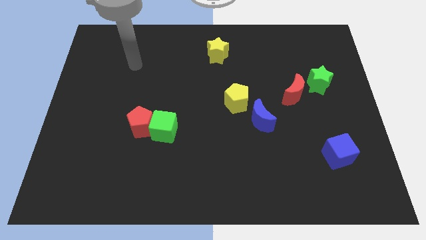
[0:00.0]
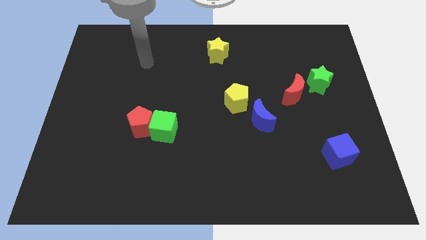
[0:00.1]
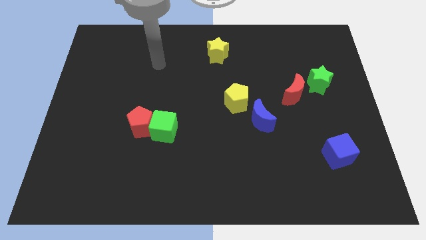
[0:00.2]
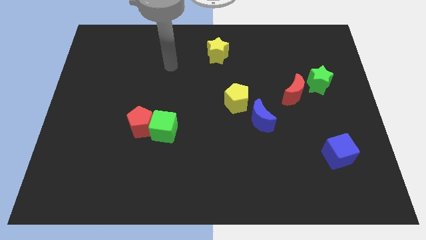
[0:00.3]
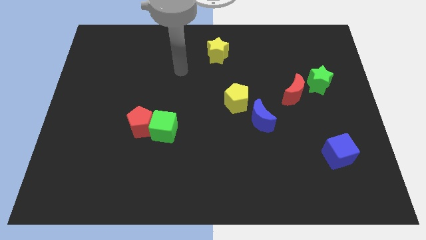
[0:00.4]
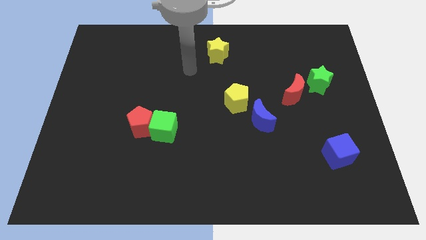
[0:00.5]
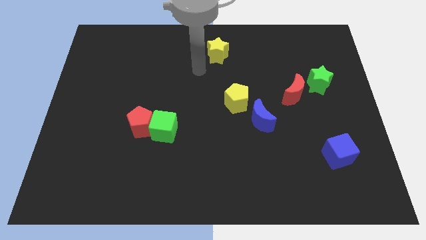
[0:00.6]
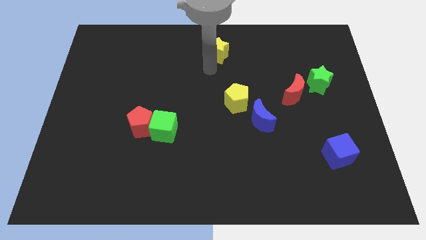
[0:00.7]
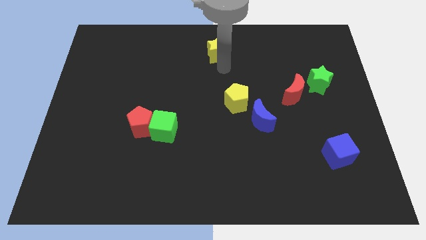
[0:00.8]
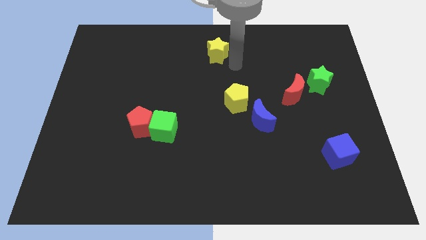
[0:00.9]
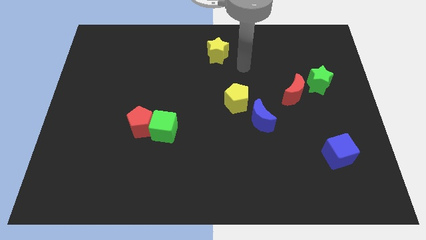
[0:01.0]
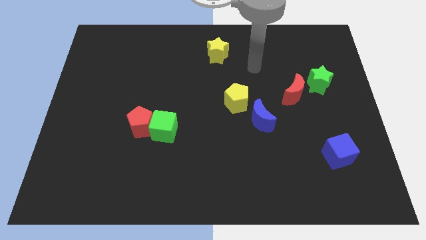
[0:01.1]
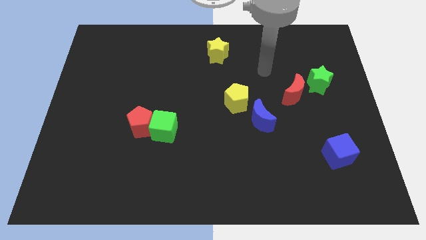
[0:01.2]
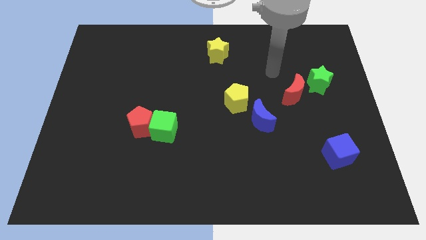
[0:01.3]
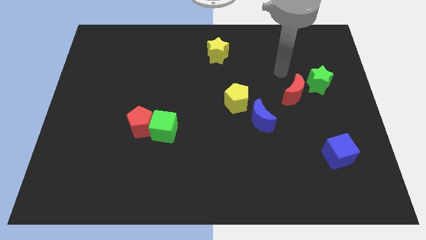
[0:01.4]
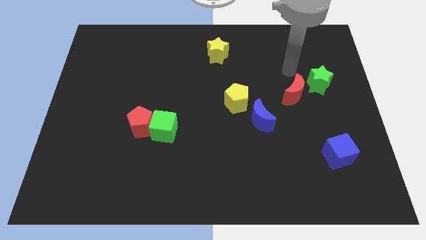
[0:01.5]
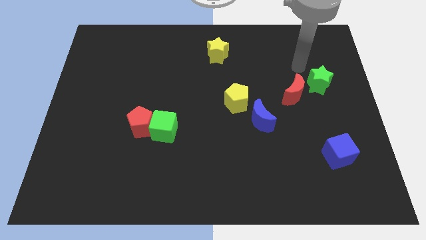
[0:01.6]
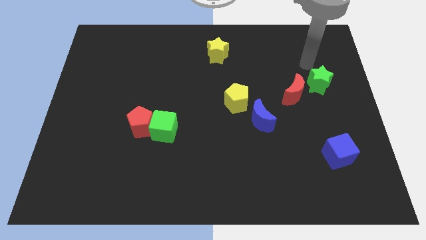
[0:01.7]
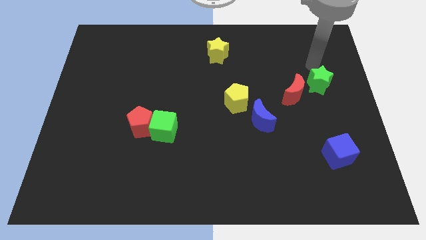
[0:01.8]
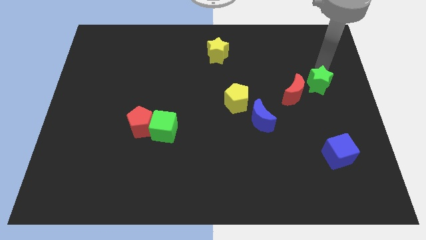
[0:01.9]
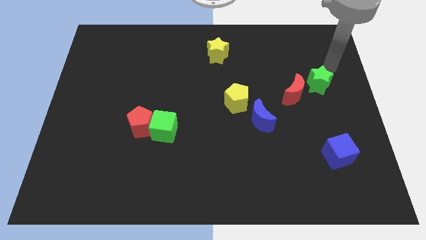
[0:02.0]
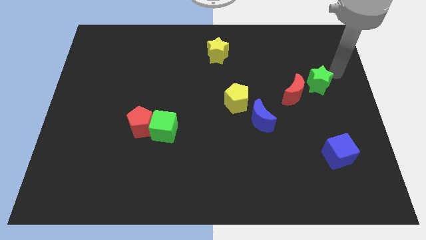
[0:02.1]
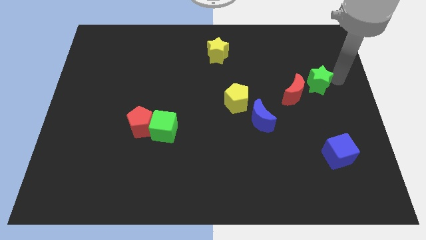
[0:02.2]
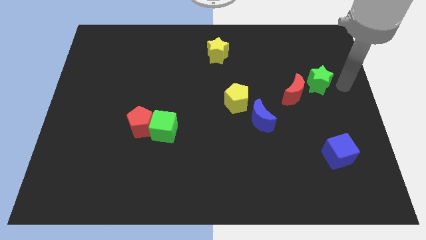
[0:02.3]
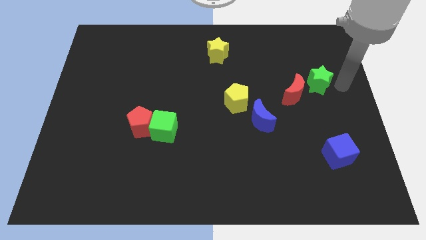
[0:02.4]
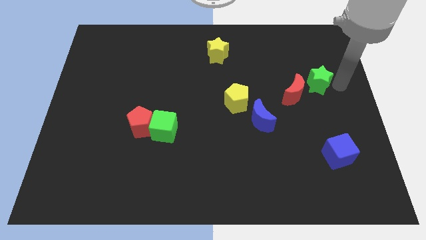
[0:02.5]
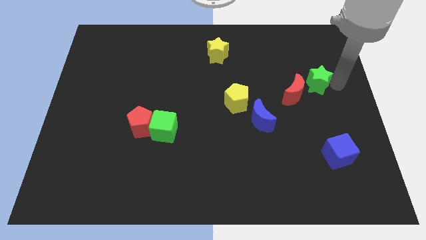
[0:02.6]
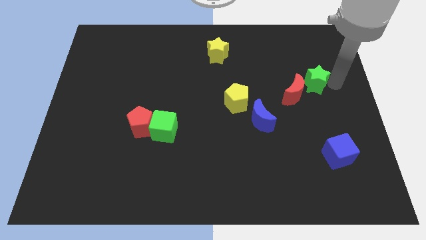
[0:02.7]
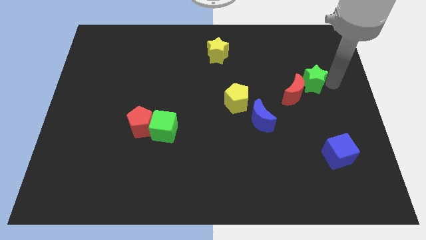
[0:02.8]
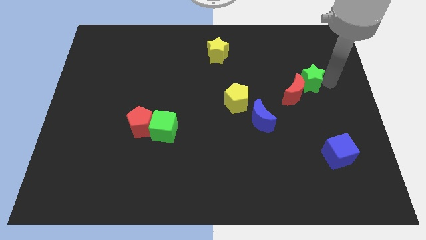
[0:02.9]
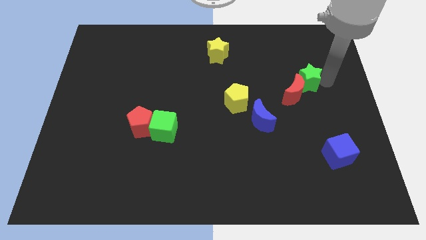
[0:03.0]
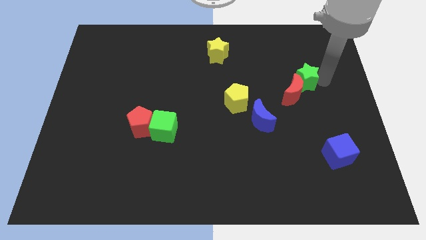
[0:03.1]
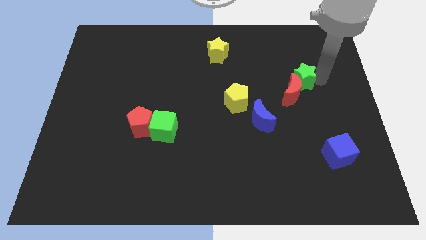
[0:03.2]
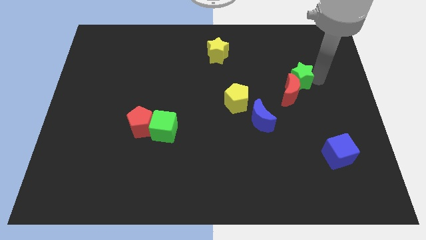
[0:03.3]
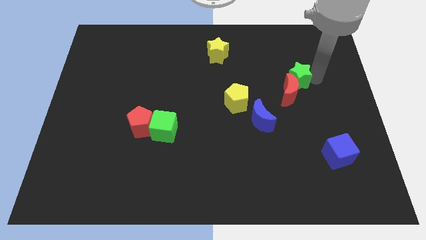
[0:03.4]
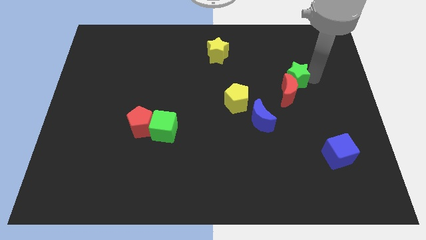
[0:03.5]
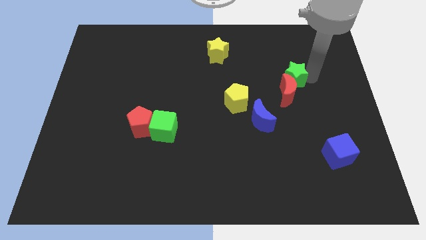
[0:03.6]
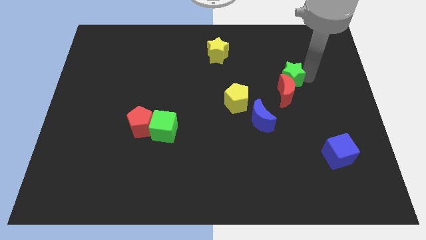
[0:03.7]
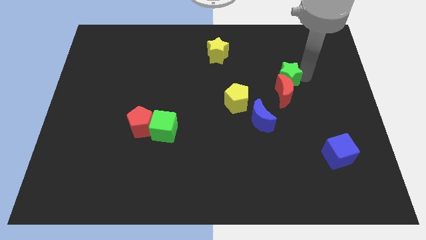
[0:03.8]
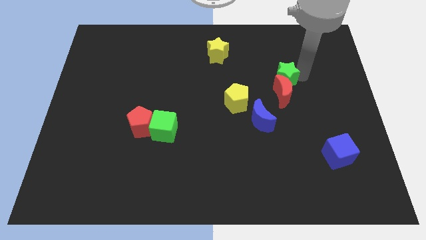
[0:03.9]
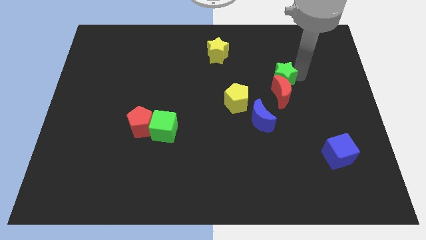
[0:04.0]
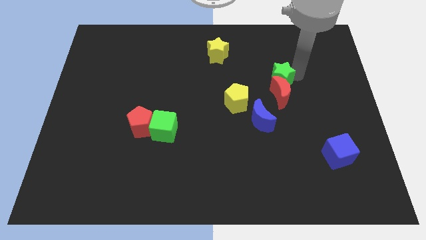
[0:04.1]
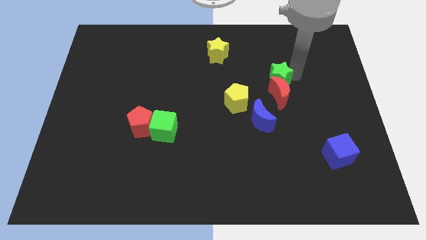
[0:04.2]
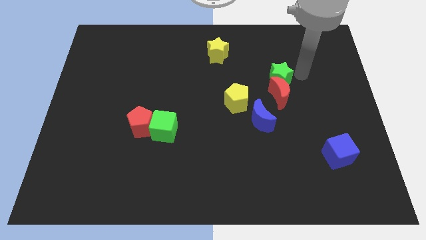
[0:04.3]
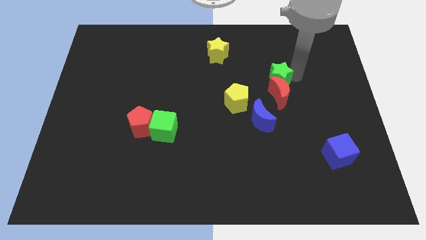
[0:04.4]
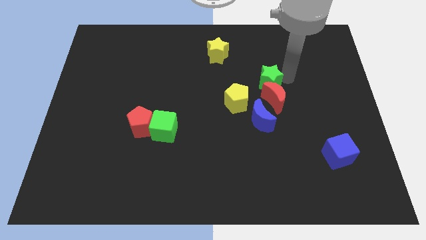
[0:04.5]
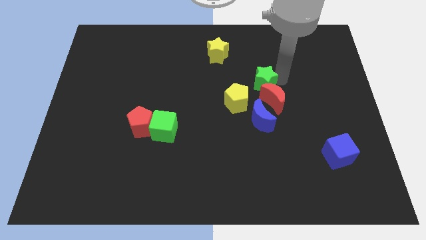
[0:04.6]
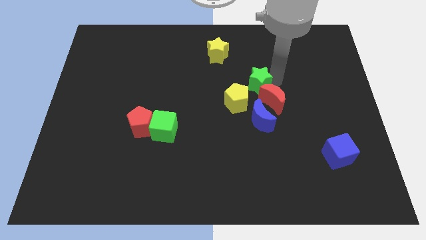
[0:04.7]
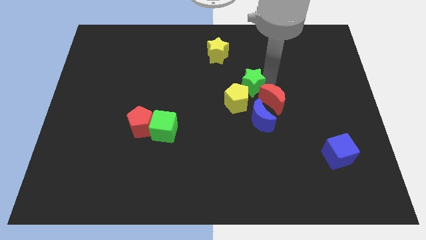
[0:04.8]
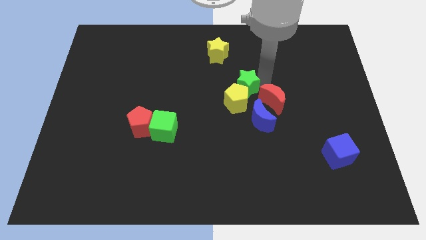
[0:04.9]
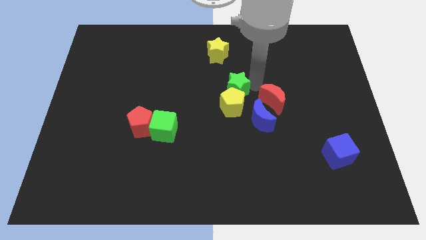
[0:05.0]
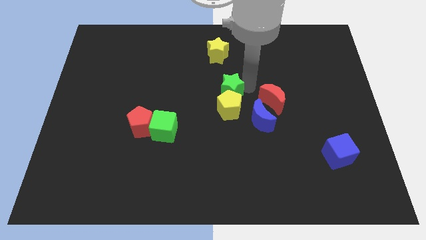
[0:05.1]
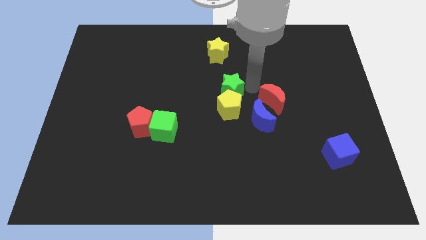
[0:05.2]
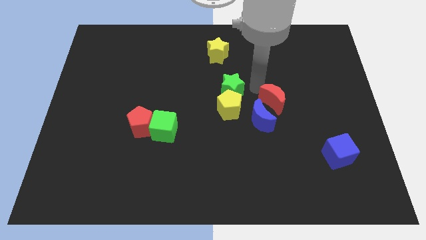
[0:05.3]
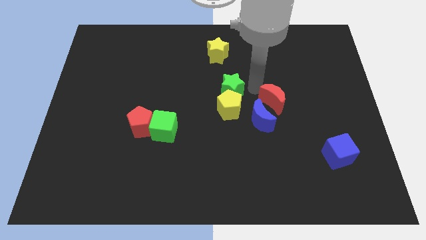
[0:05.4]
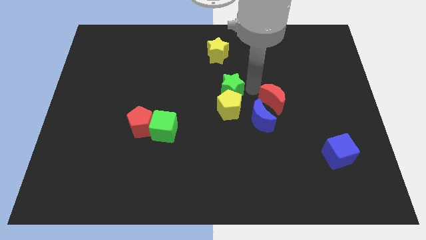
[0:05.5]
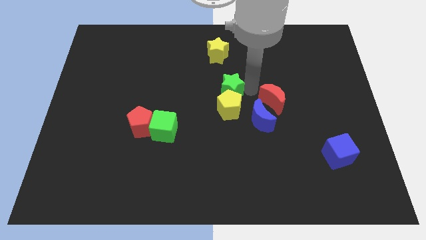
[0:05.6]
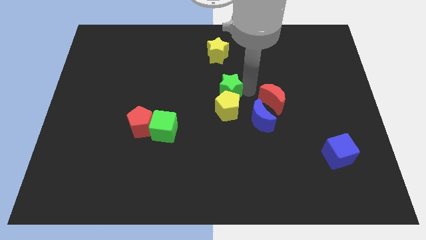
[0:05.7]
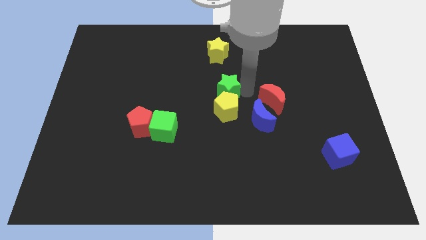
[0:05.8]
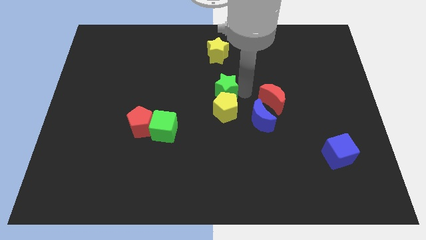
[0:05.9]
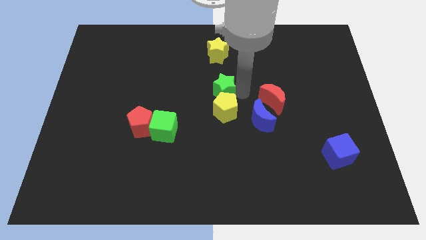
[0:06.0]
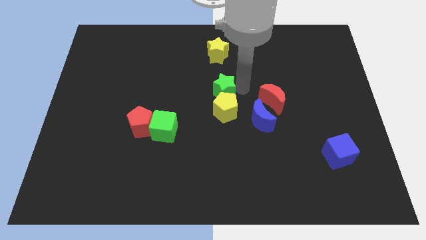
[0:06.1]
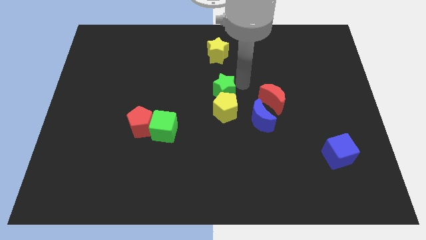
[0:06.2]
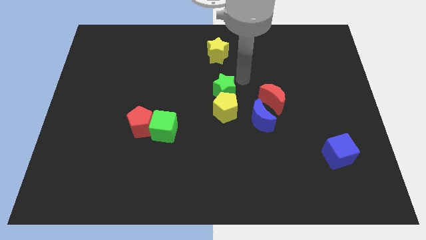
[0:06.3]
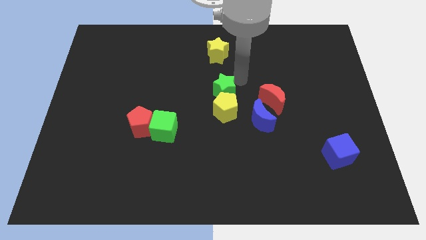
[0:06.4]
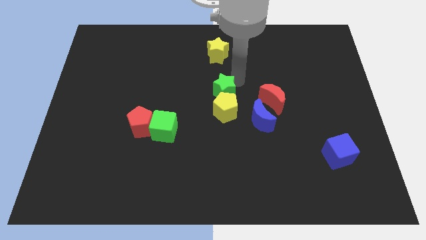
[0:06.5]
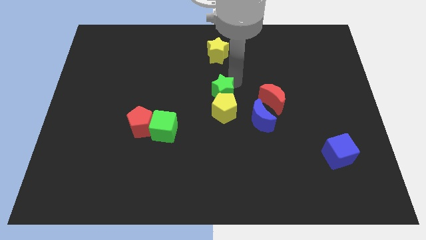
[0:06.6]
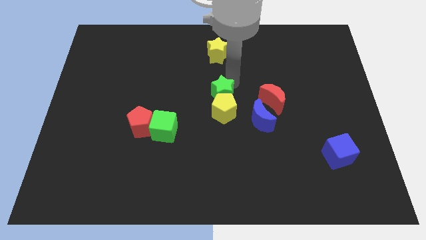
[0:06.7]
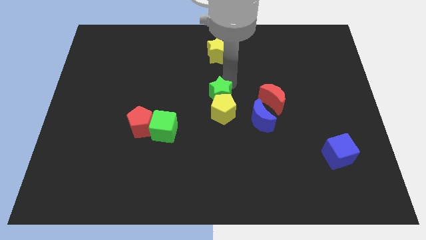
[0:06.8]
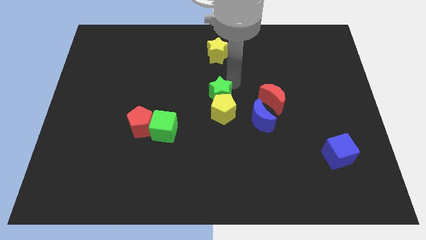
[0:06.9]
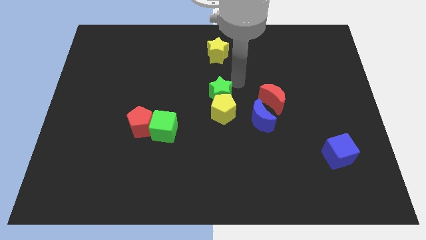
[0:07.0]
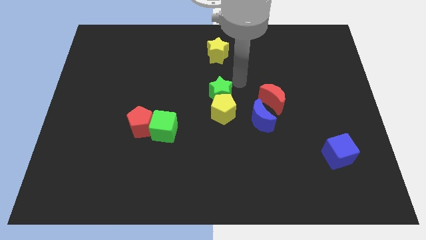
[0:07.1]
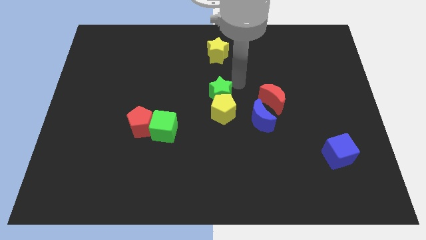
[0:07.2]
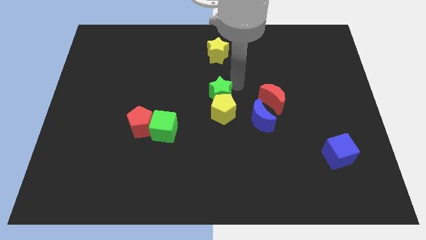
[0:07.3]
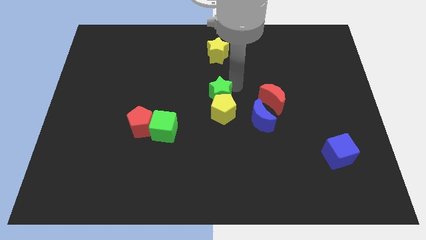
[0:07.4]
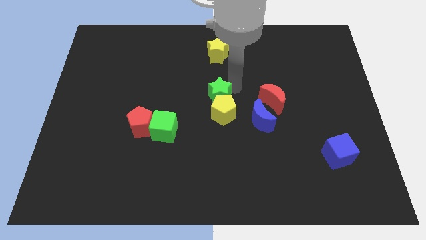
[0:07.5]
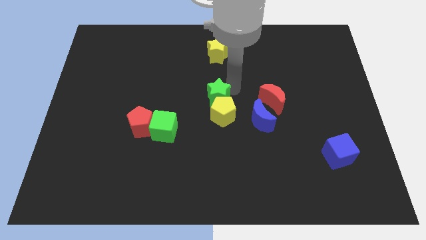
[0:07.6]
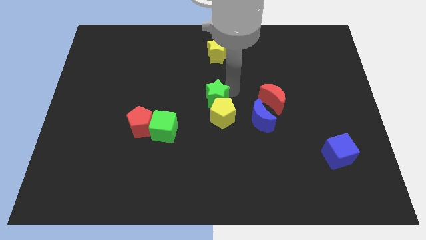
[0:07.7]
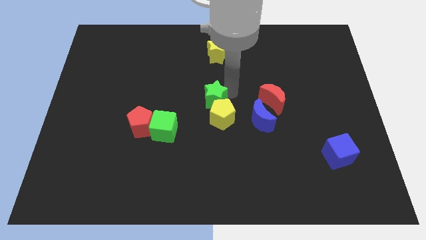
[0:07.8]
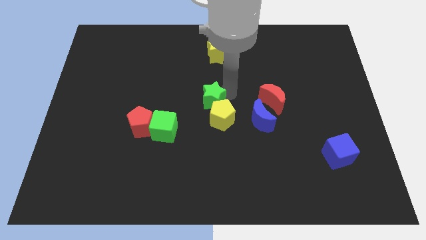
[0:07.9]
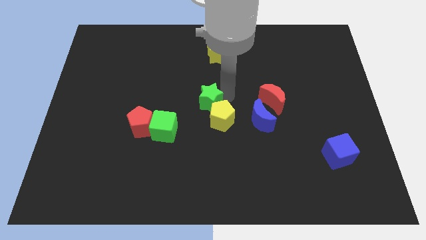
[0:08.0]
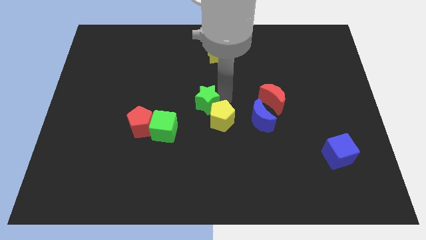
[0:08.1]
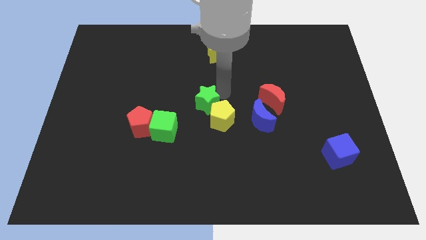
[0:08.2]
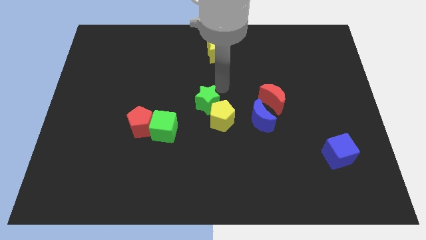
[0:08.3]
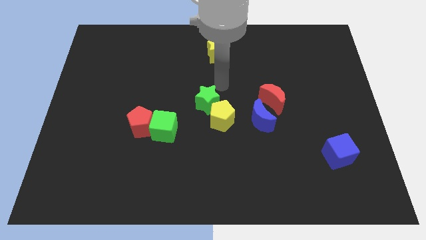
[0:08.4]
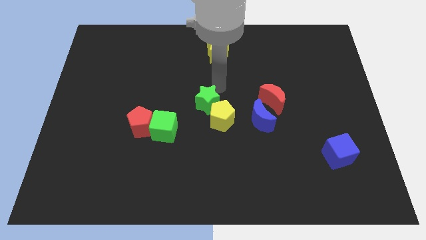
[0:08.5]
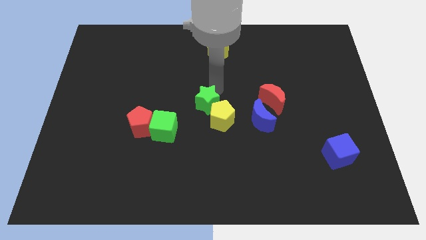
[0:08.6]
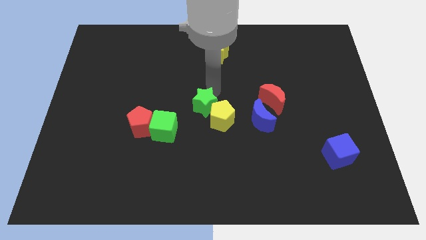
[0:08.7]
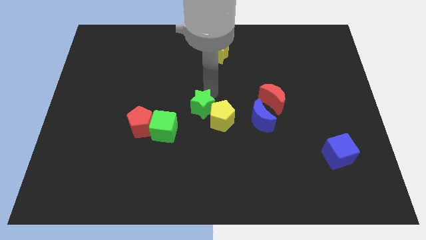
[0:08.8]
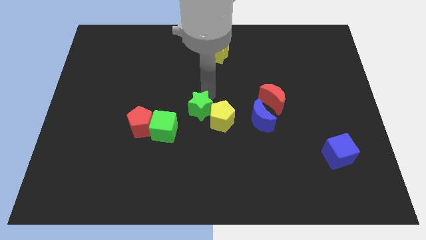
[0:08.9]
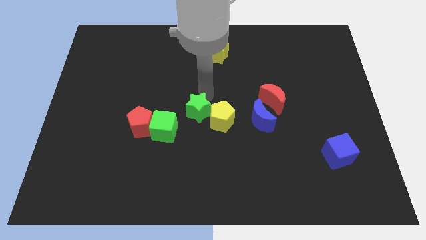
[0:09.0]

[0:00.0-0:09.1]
put the green star to the right of the red pentagon
